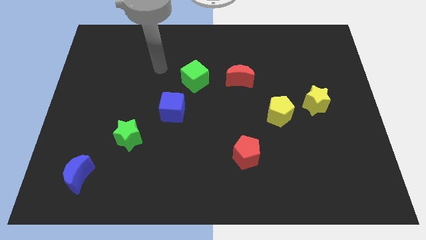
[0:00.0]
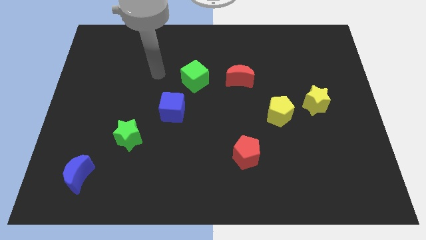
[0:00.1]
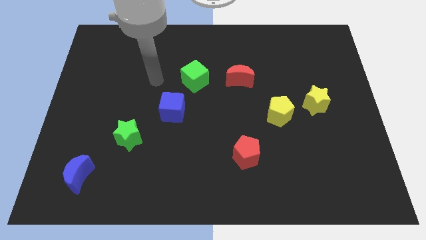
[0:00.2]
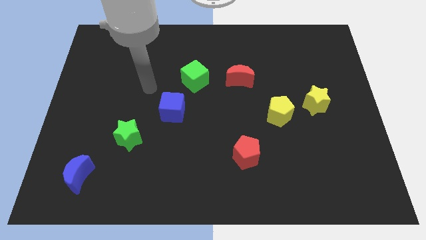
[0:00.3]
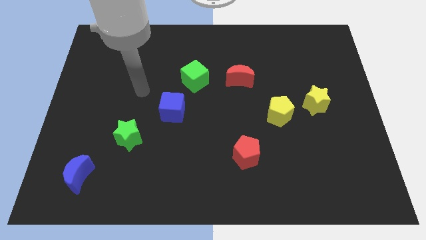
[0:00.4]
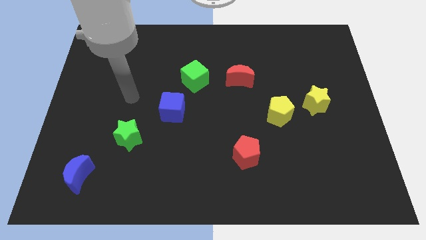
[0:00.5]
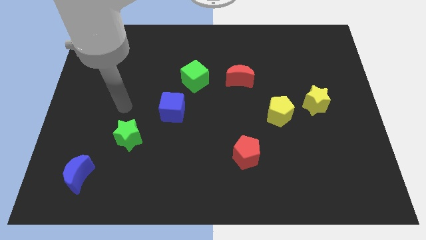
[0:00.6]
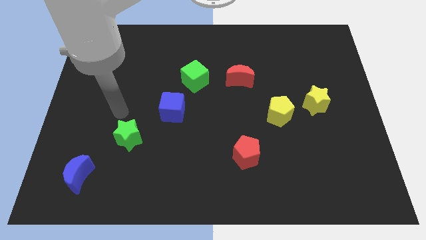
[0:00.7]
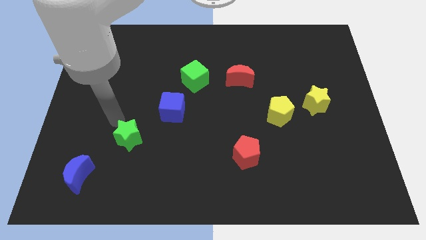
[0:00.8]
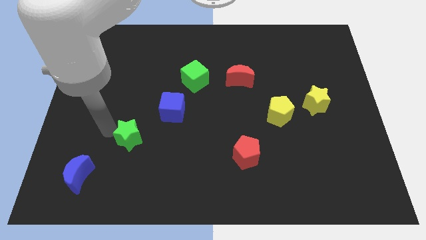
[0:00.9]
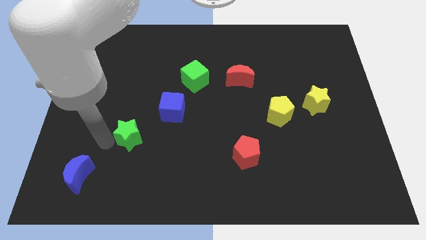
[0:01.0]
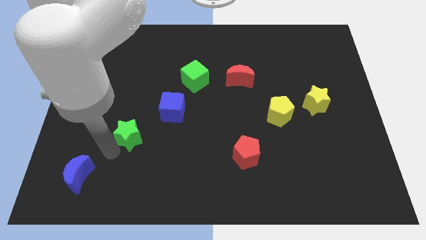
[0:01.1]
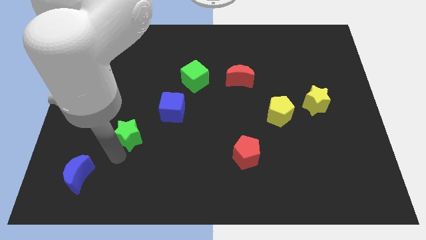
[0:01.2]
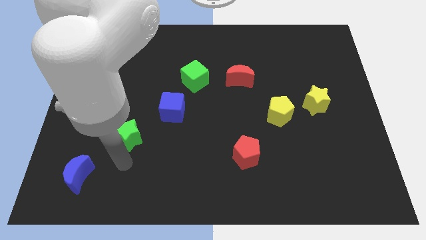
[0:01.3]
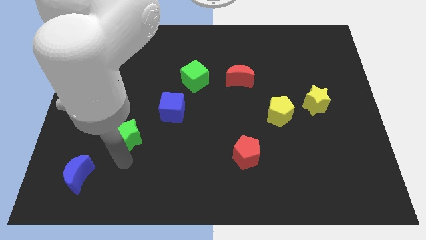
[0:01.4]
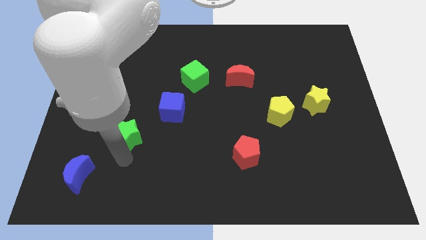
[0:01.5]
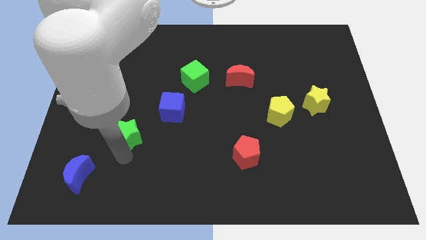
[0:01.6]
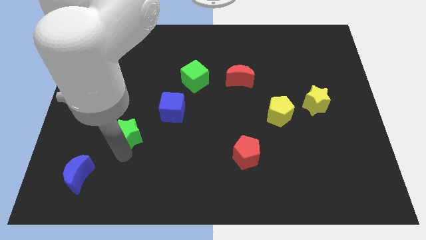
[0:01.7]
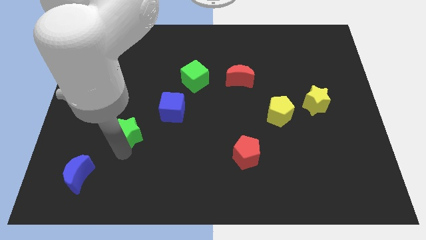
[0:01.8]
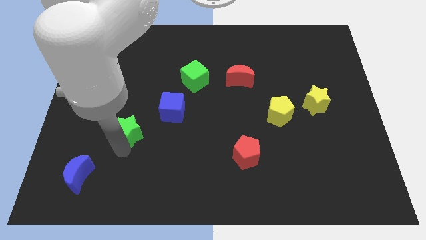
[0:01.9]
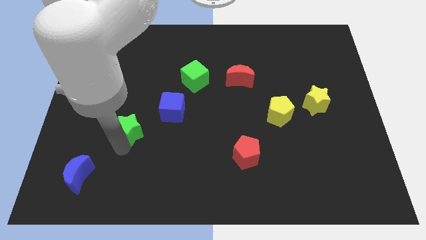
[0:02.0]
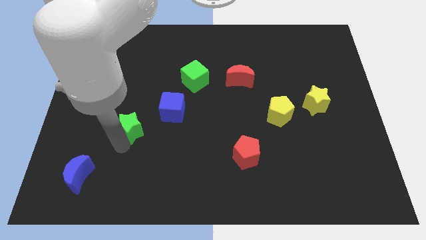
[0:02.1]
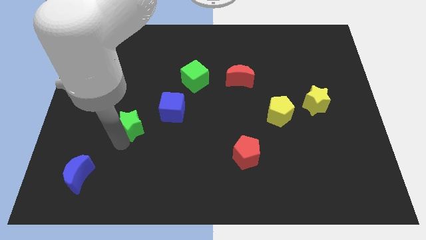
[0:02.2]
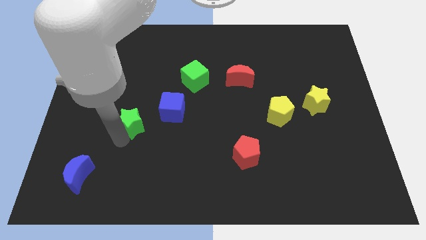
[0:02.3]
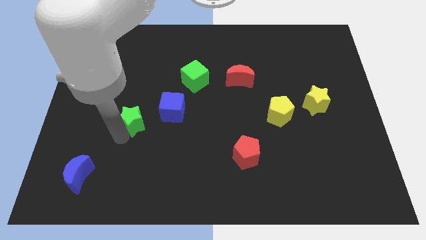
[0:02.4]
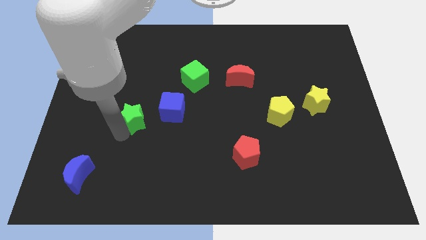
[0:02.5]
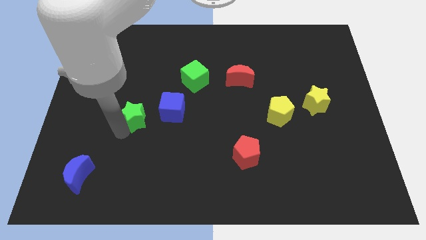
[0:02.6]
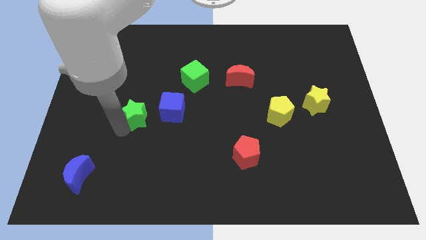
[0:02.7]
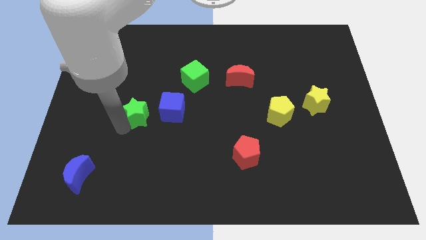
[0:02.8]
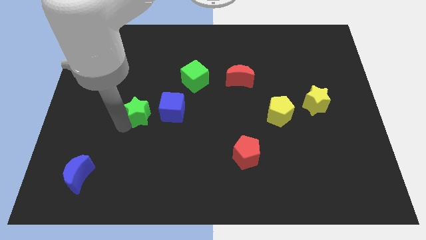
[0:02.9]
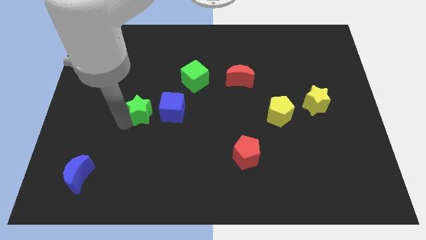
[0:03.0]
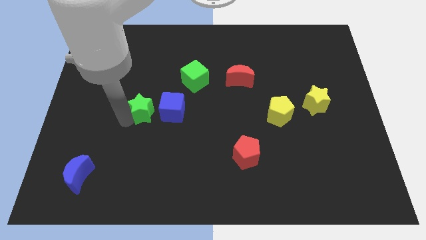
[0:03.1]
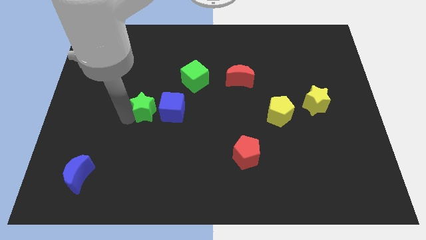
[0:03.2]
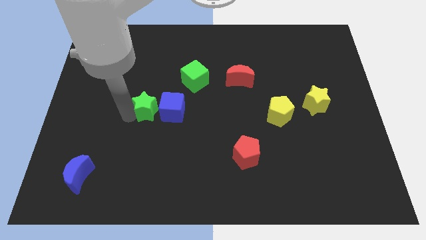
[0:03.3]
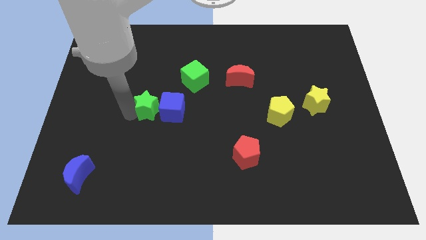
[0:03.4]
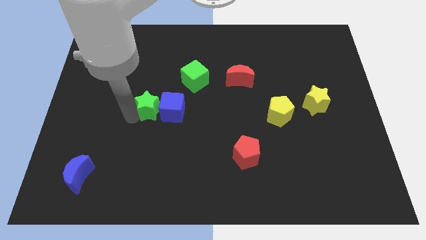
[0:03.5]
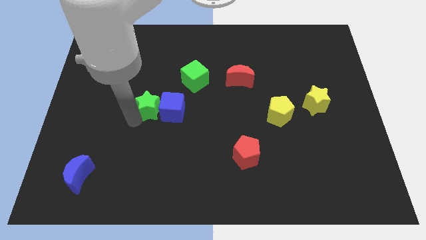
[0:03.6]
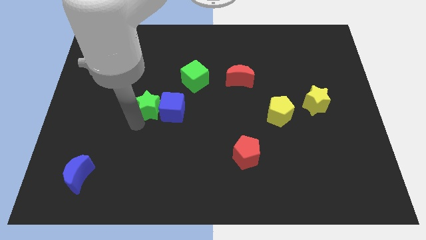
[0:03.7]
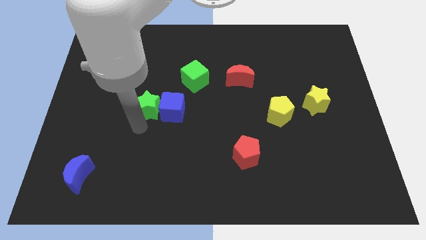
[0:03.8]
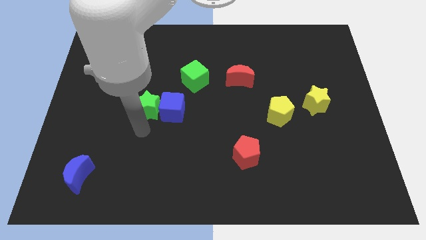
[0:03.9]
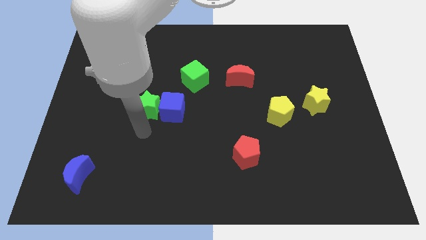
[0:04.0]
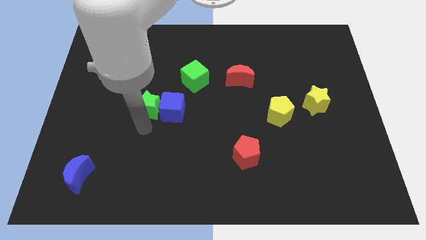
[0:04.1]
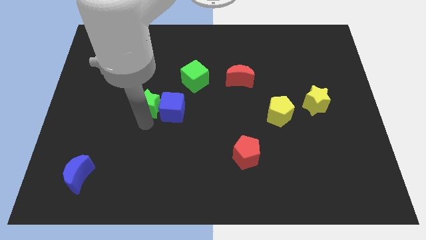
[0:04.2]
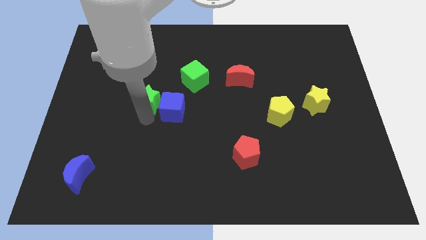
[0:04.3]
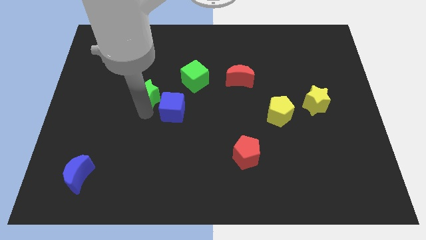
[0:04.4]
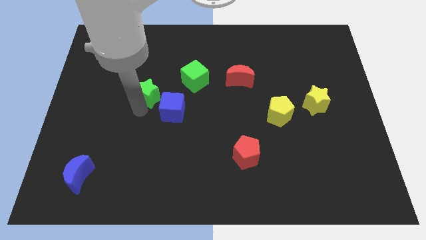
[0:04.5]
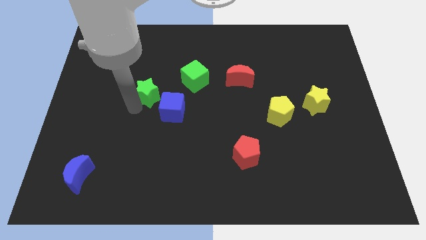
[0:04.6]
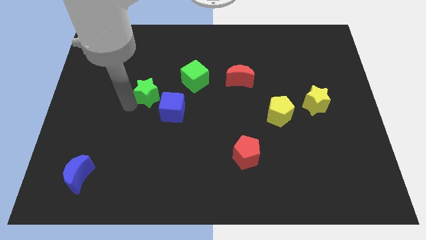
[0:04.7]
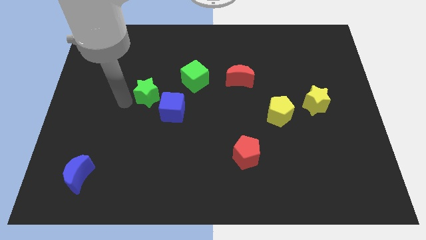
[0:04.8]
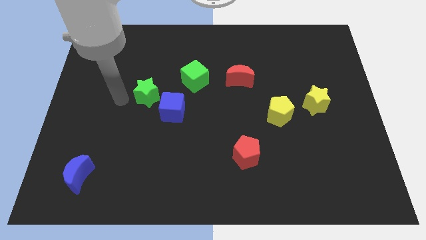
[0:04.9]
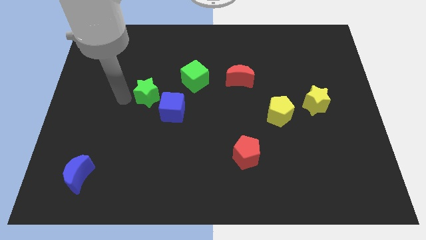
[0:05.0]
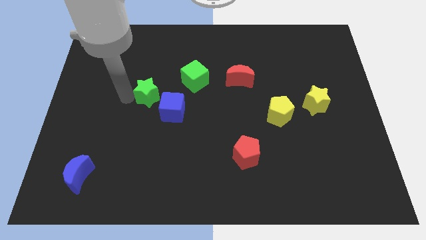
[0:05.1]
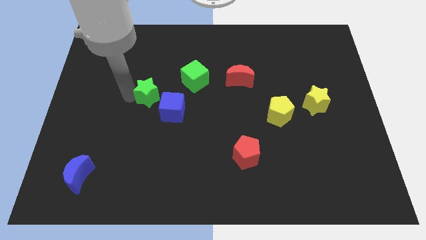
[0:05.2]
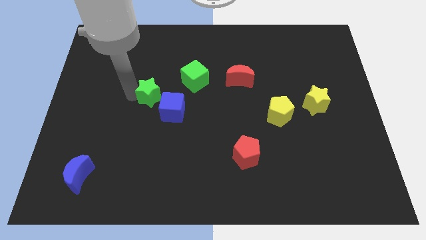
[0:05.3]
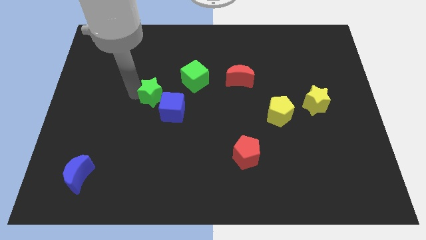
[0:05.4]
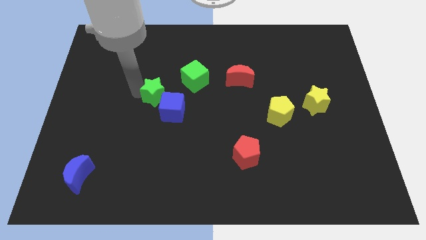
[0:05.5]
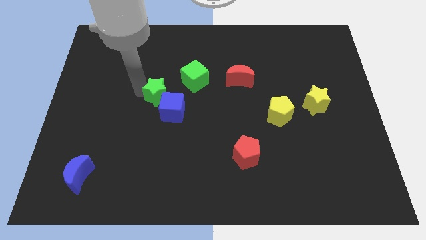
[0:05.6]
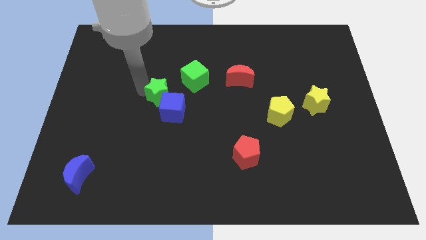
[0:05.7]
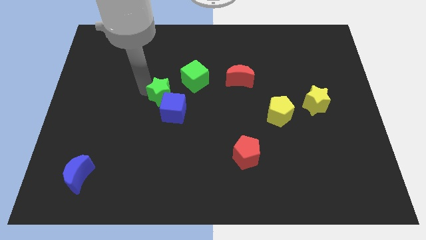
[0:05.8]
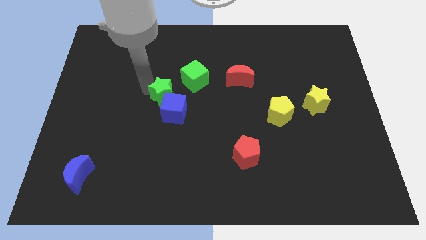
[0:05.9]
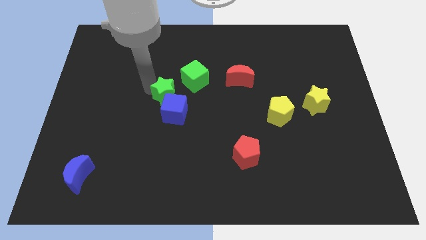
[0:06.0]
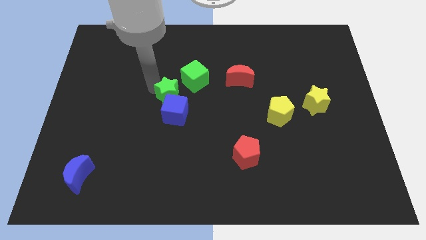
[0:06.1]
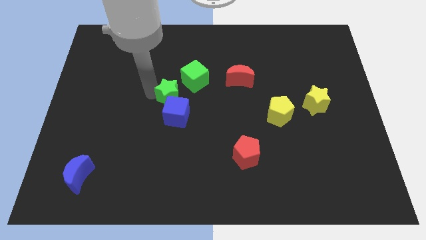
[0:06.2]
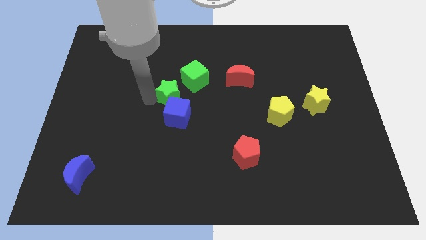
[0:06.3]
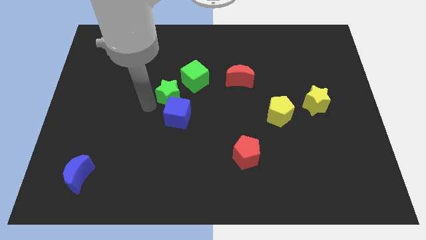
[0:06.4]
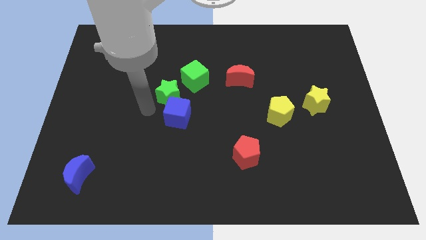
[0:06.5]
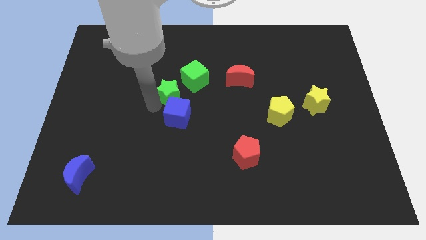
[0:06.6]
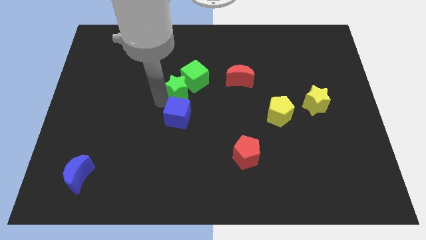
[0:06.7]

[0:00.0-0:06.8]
put the green star close to the green cube
